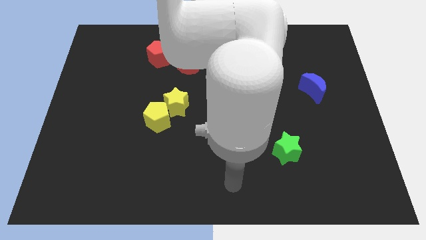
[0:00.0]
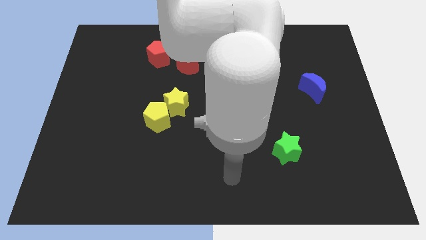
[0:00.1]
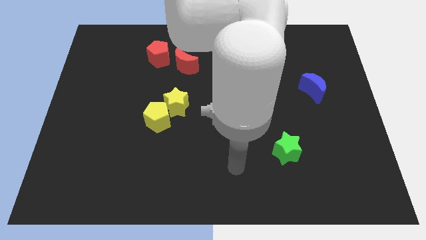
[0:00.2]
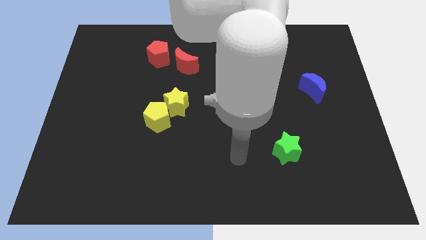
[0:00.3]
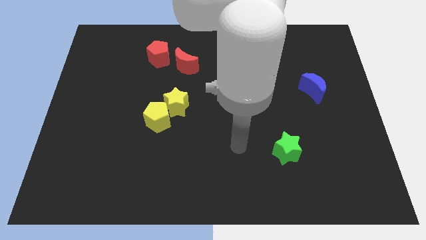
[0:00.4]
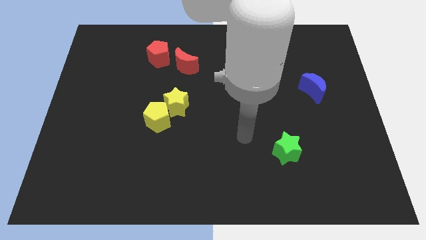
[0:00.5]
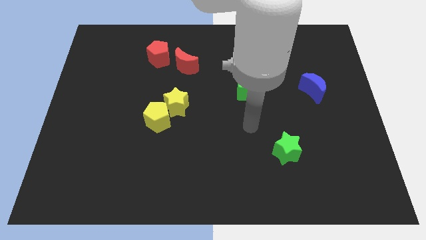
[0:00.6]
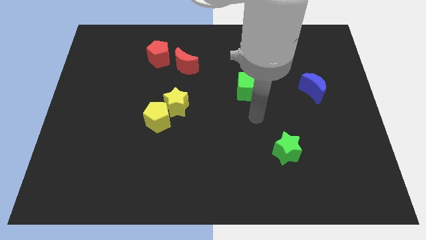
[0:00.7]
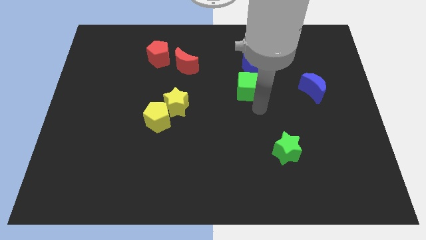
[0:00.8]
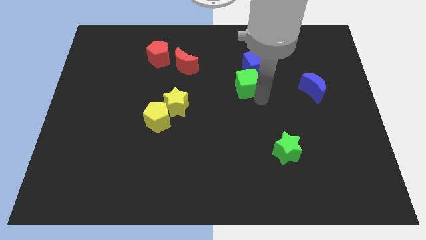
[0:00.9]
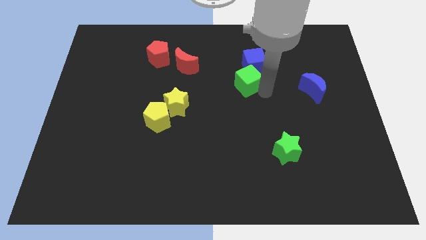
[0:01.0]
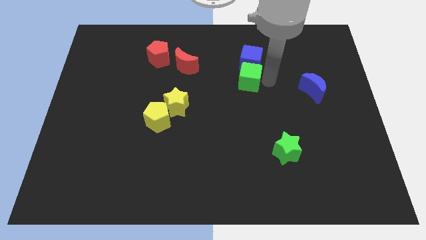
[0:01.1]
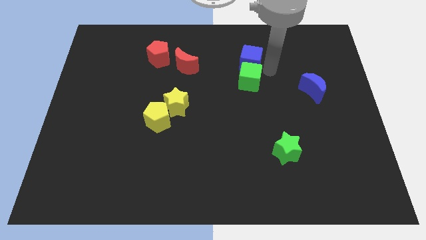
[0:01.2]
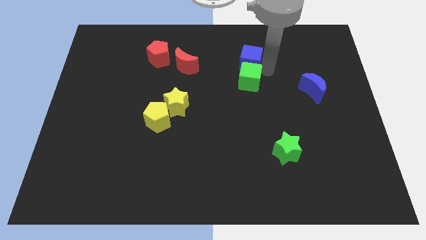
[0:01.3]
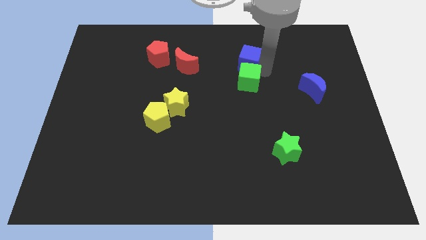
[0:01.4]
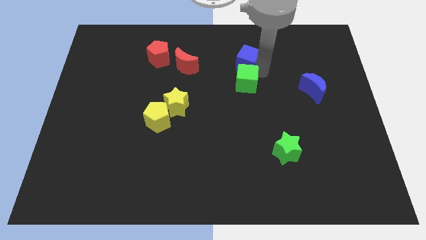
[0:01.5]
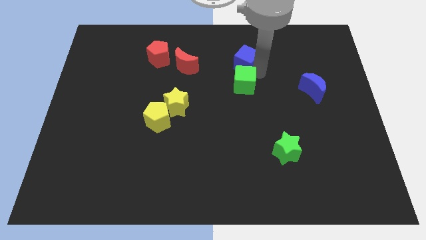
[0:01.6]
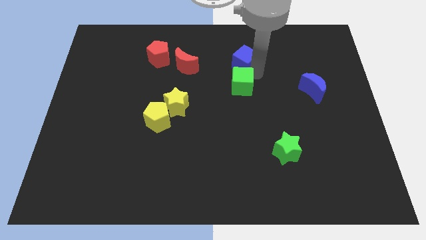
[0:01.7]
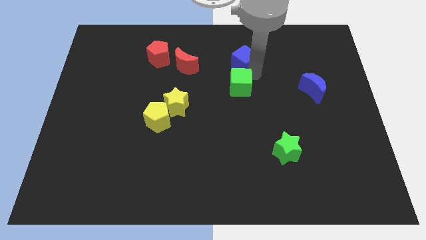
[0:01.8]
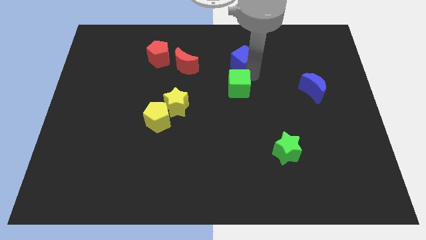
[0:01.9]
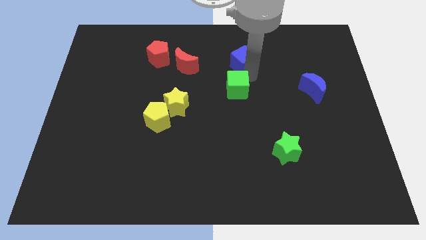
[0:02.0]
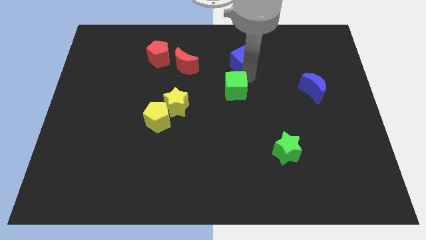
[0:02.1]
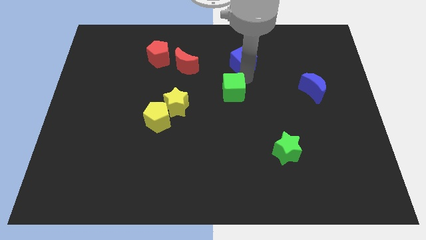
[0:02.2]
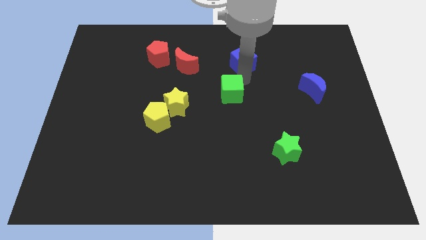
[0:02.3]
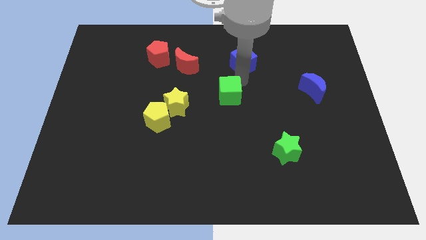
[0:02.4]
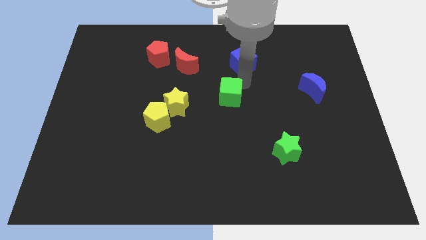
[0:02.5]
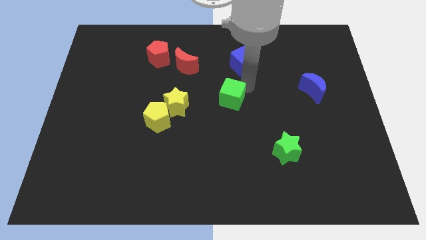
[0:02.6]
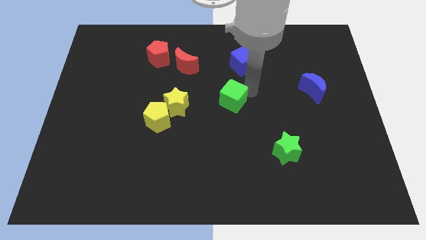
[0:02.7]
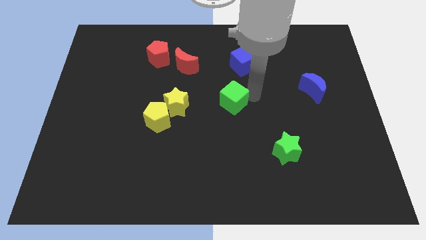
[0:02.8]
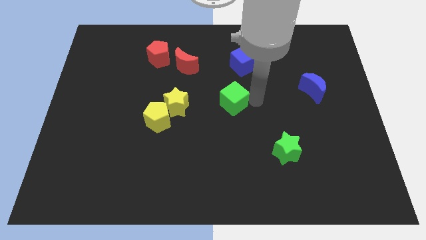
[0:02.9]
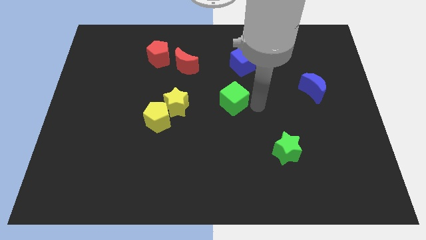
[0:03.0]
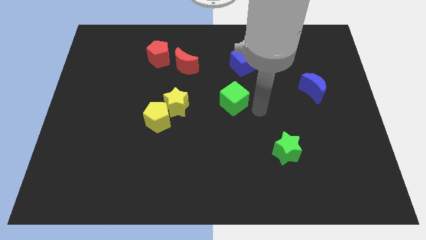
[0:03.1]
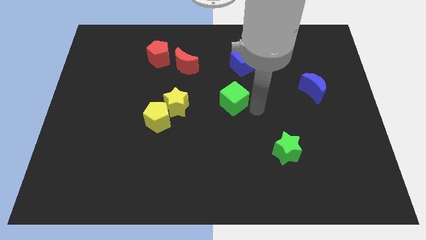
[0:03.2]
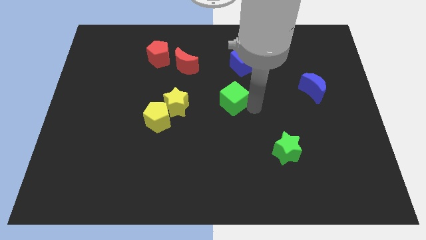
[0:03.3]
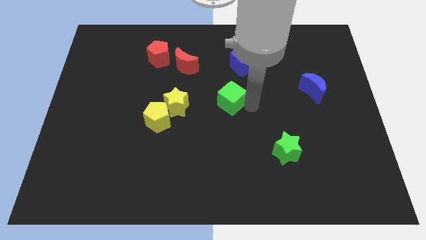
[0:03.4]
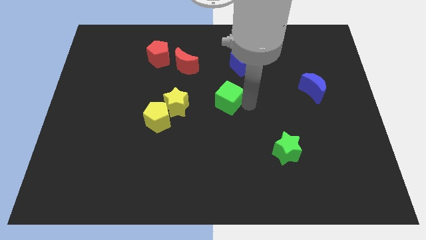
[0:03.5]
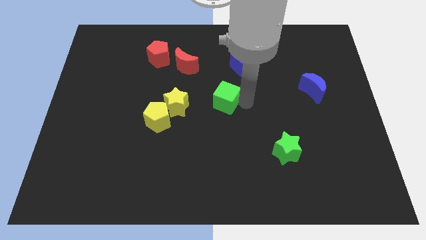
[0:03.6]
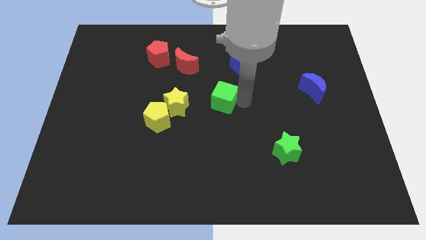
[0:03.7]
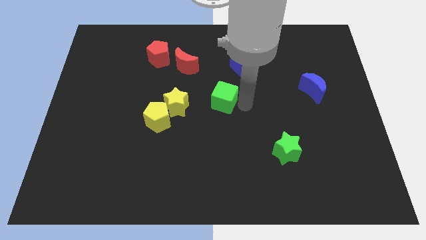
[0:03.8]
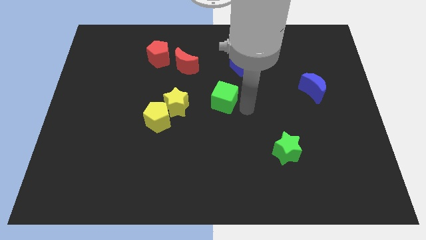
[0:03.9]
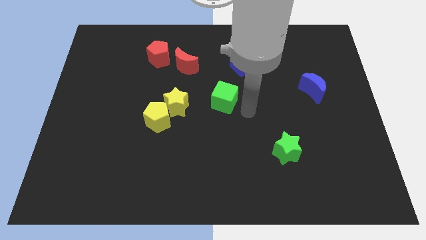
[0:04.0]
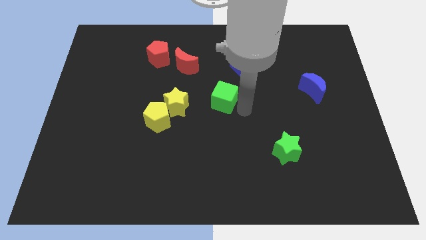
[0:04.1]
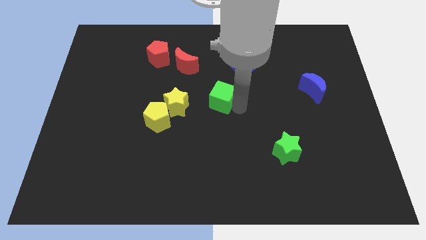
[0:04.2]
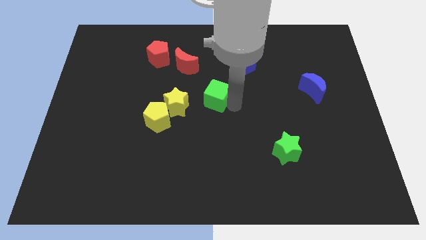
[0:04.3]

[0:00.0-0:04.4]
move the green cube a little left

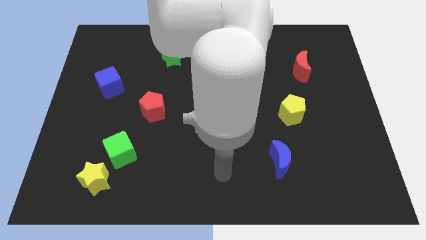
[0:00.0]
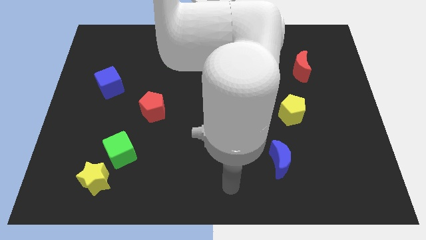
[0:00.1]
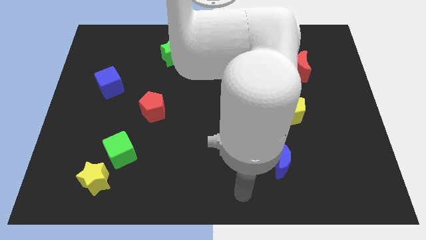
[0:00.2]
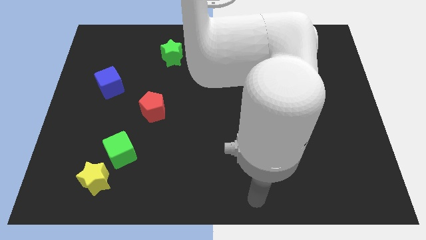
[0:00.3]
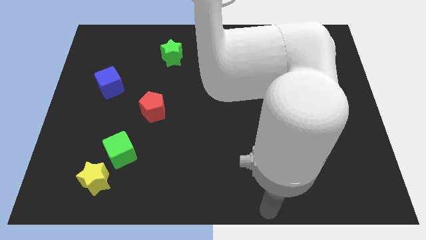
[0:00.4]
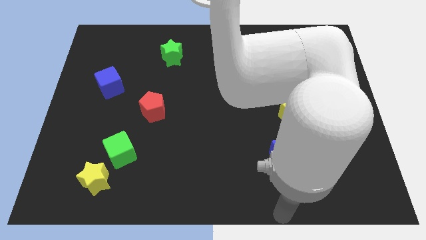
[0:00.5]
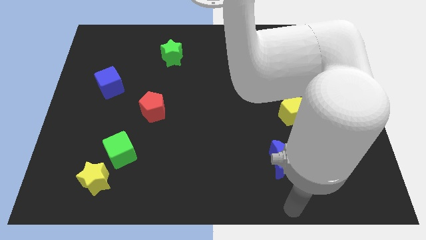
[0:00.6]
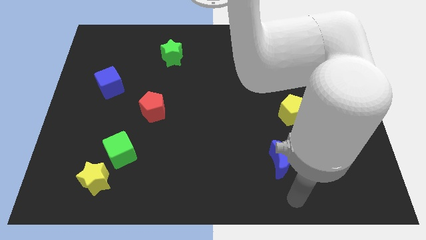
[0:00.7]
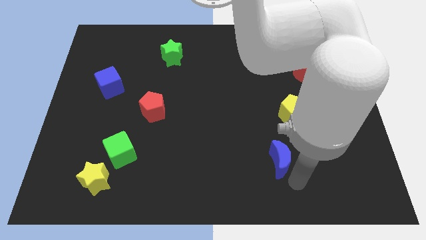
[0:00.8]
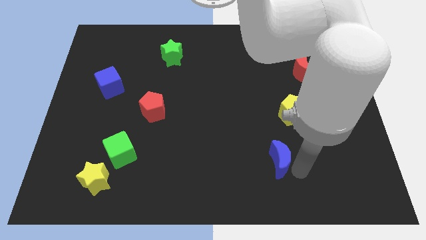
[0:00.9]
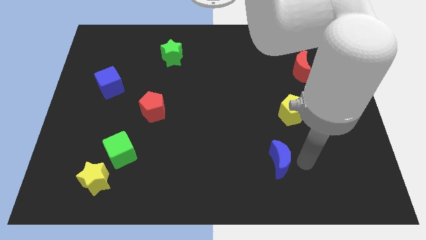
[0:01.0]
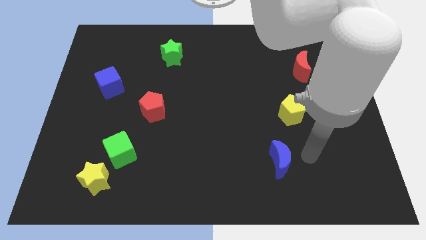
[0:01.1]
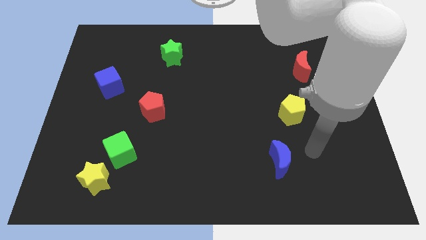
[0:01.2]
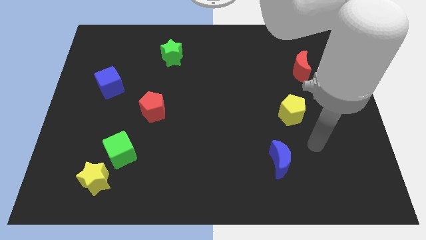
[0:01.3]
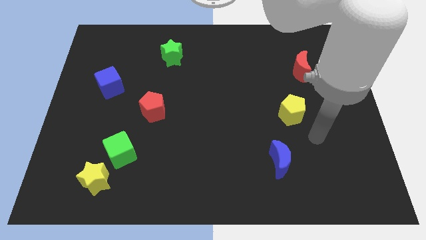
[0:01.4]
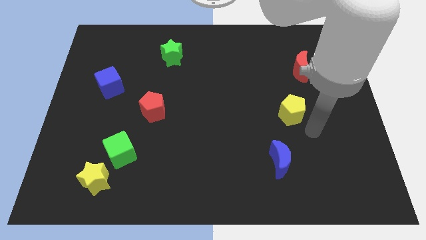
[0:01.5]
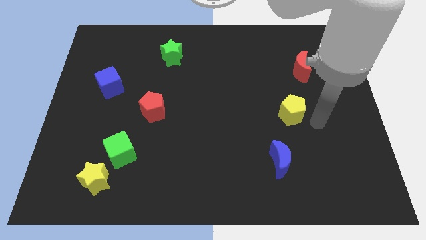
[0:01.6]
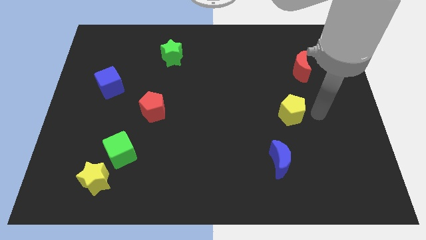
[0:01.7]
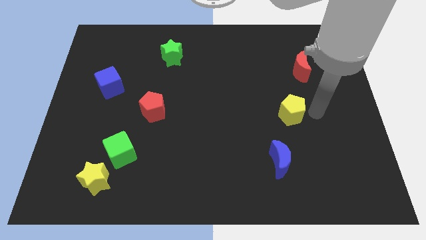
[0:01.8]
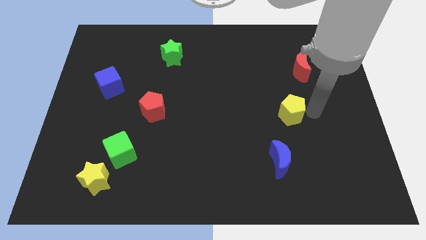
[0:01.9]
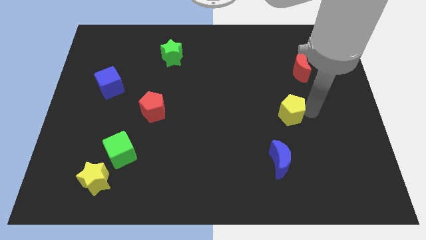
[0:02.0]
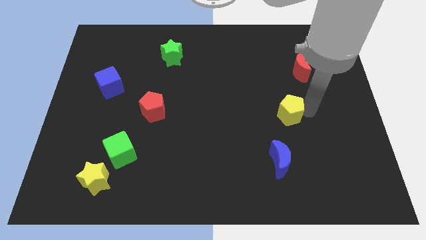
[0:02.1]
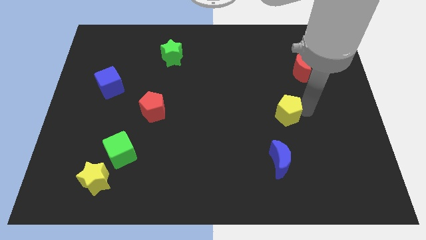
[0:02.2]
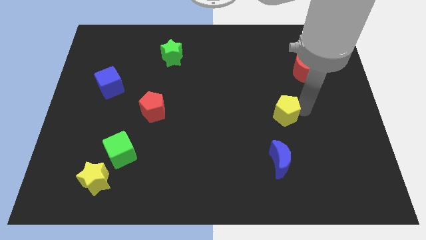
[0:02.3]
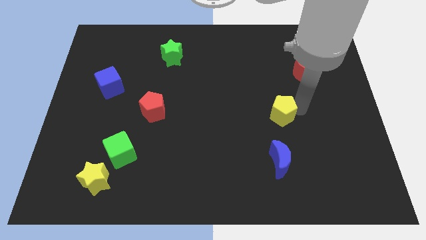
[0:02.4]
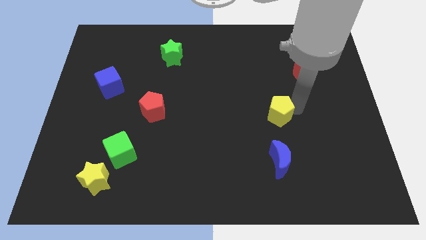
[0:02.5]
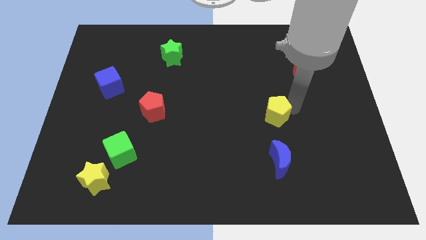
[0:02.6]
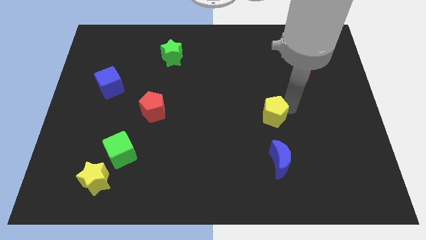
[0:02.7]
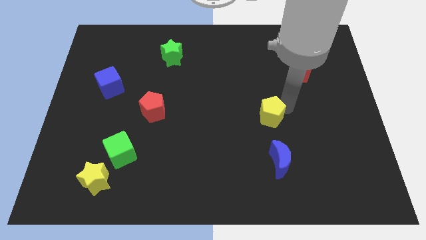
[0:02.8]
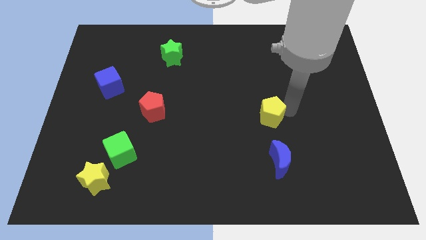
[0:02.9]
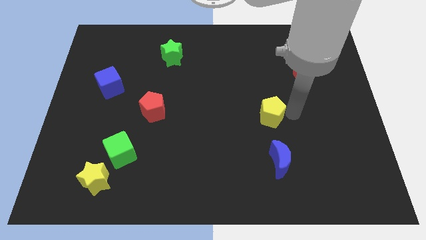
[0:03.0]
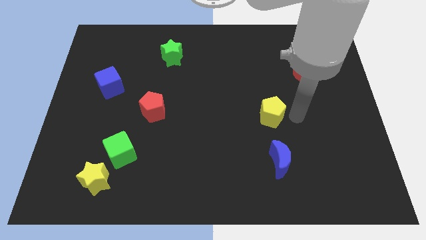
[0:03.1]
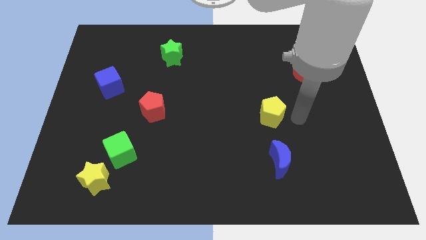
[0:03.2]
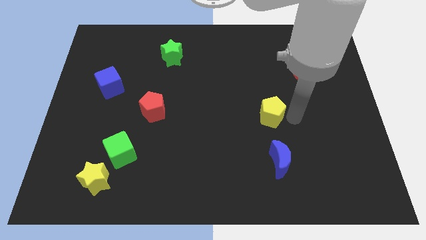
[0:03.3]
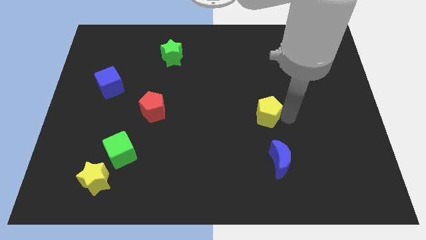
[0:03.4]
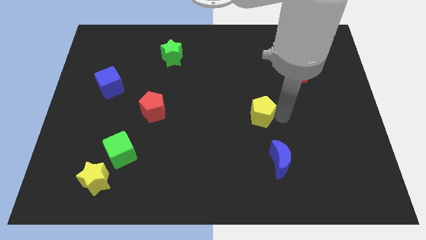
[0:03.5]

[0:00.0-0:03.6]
slightly push the yellow pentagon to the left

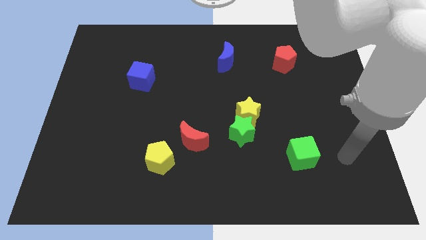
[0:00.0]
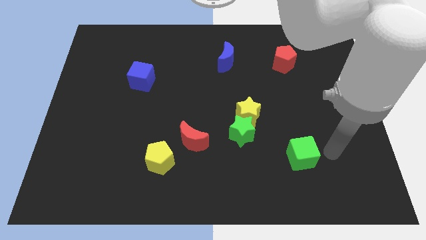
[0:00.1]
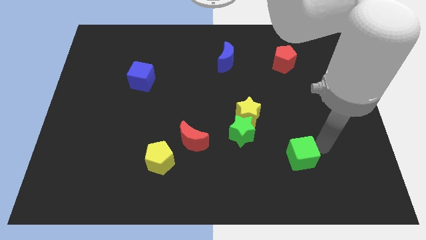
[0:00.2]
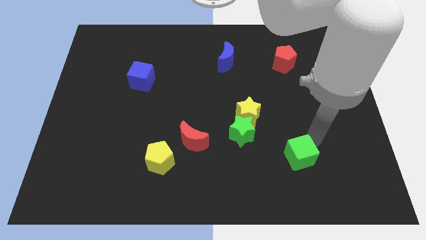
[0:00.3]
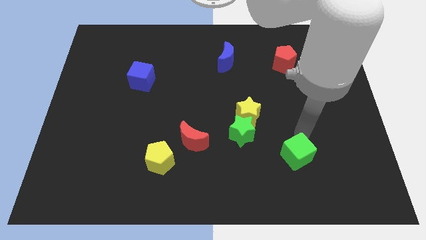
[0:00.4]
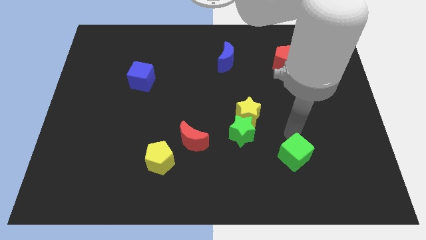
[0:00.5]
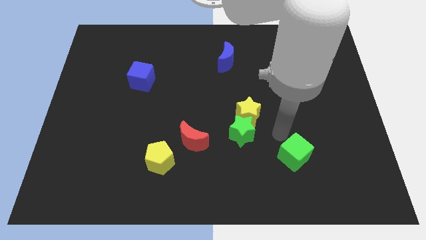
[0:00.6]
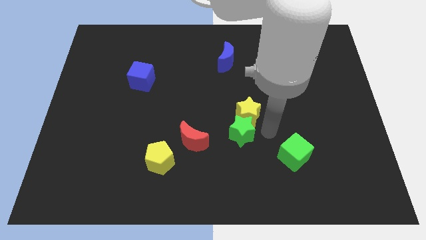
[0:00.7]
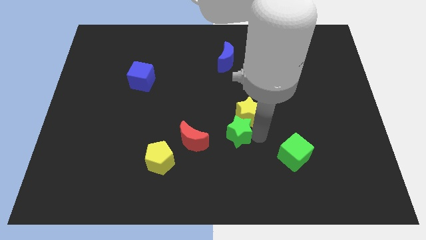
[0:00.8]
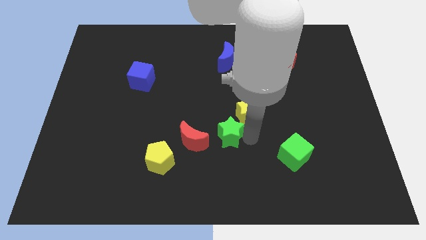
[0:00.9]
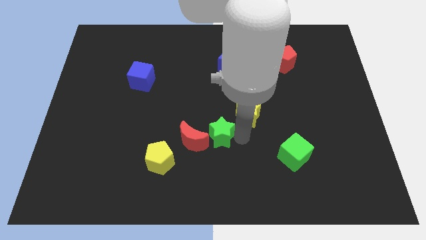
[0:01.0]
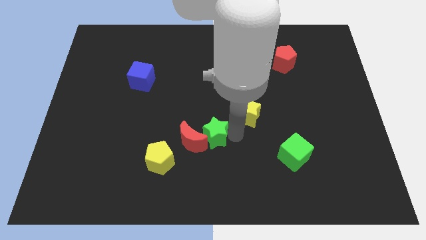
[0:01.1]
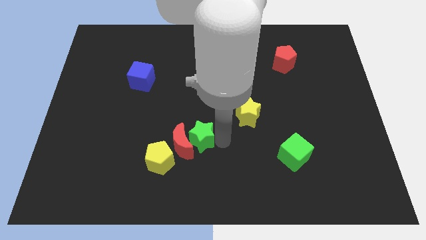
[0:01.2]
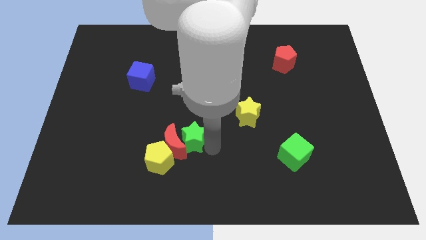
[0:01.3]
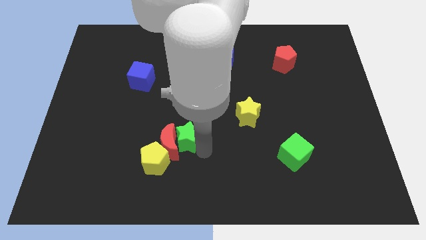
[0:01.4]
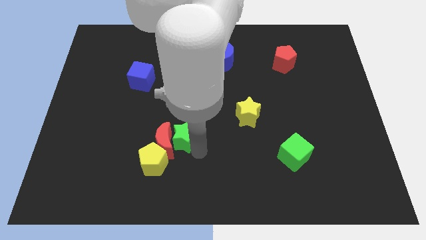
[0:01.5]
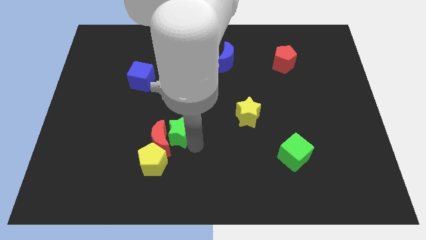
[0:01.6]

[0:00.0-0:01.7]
push the red moon to the left a little
